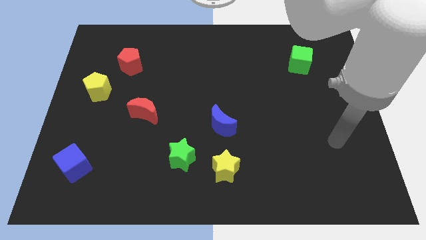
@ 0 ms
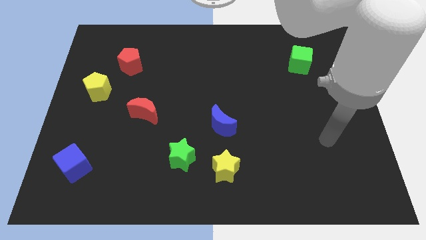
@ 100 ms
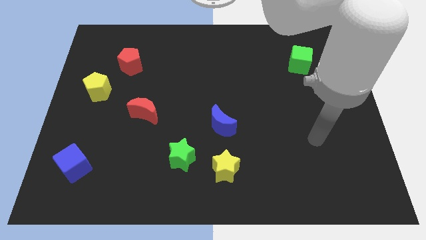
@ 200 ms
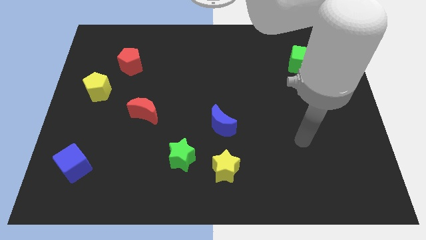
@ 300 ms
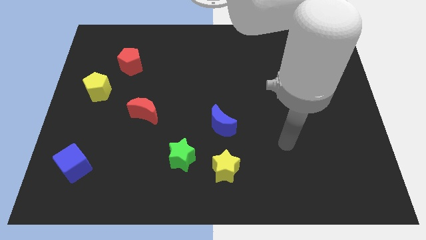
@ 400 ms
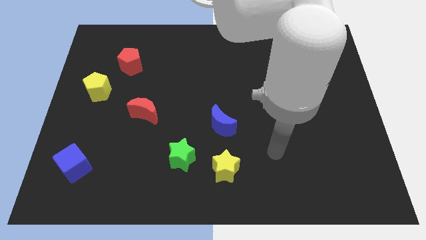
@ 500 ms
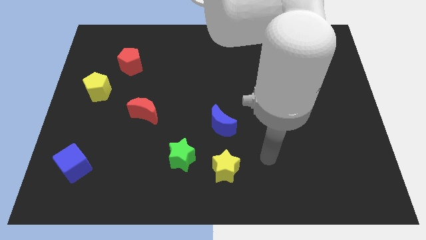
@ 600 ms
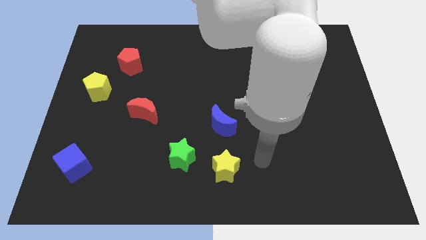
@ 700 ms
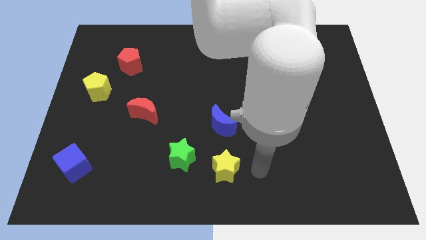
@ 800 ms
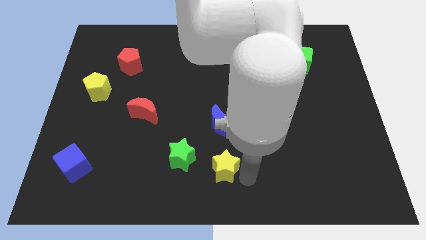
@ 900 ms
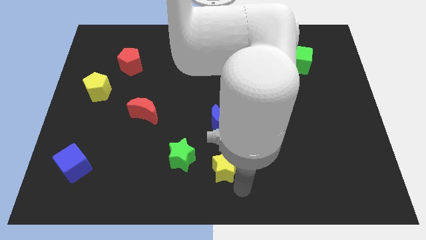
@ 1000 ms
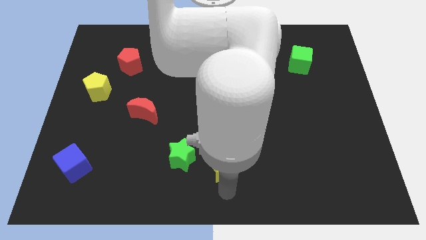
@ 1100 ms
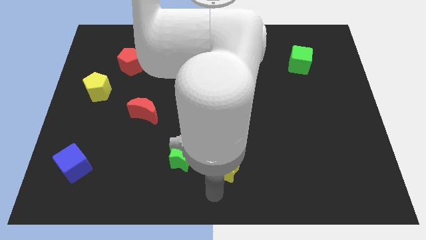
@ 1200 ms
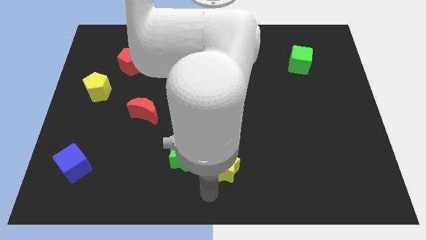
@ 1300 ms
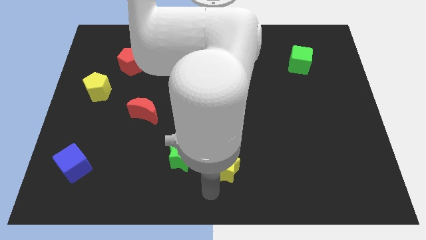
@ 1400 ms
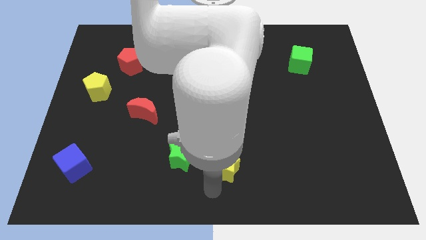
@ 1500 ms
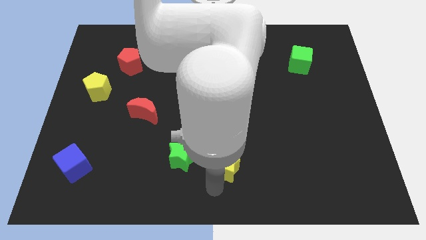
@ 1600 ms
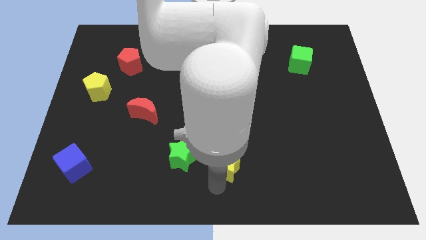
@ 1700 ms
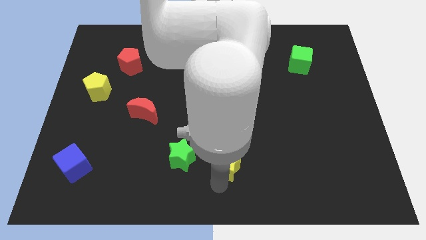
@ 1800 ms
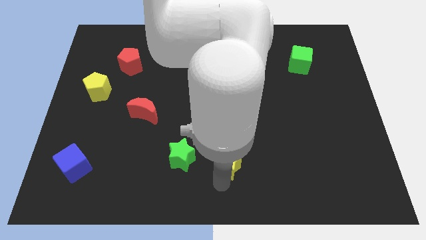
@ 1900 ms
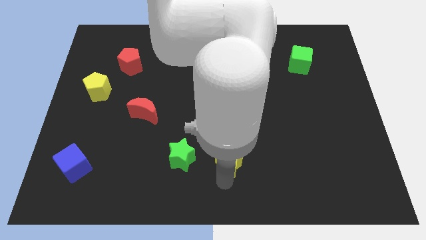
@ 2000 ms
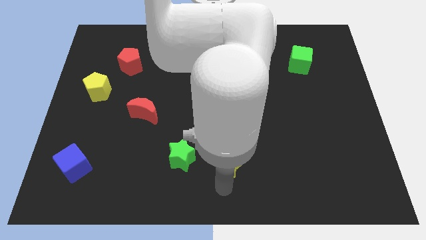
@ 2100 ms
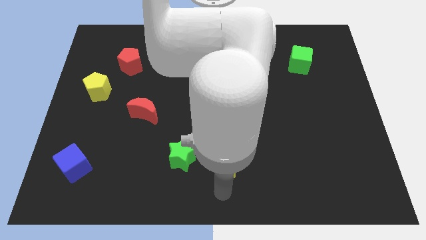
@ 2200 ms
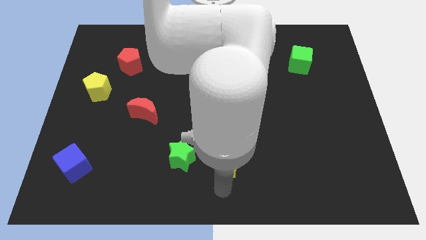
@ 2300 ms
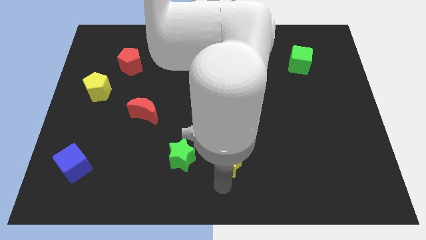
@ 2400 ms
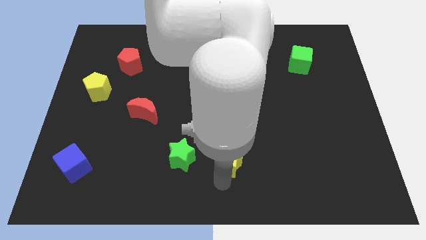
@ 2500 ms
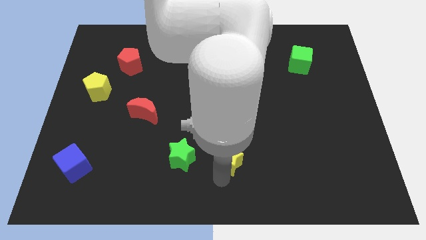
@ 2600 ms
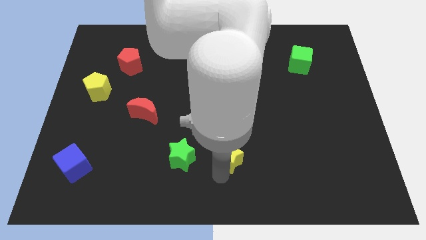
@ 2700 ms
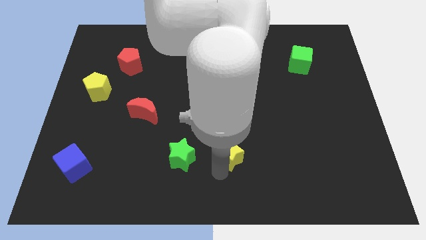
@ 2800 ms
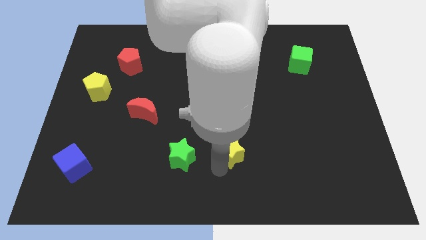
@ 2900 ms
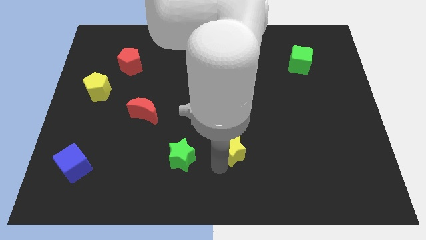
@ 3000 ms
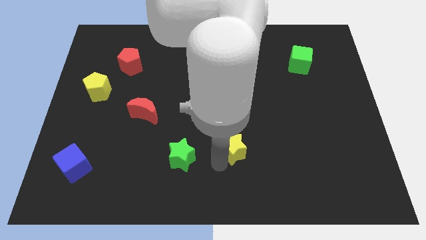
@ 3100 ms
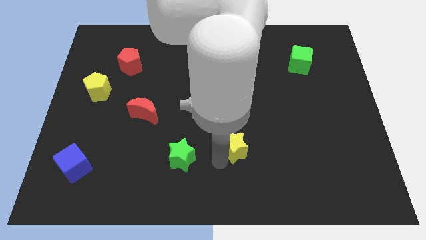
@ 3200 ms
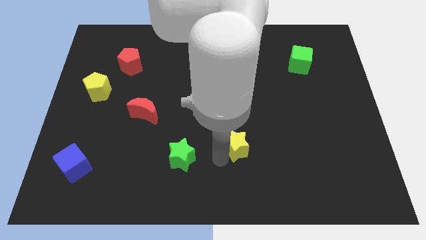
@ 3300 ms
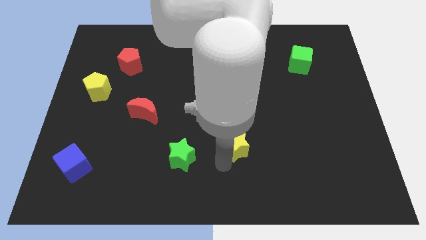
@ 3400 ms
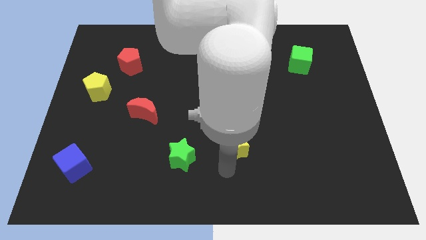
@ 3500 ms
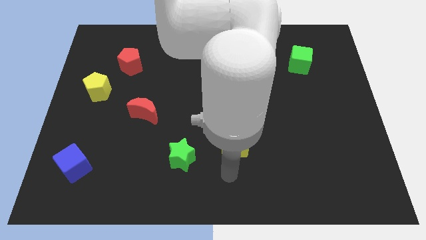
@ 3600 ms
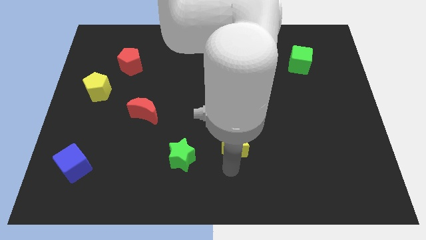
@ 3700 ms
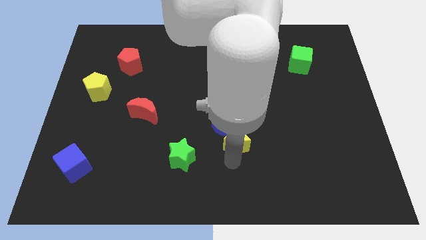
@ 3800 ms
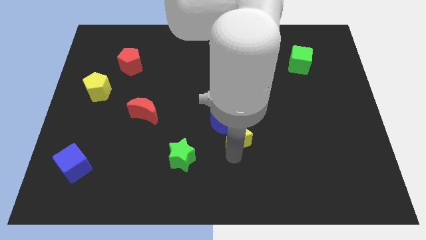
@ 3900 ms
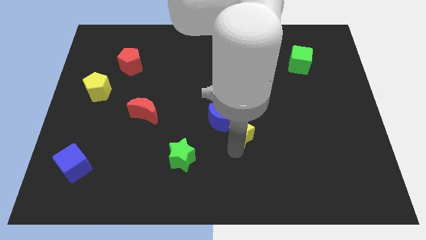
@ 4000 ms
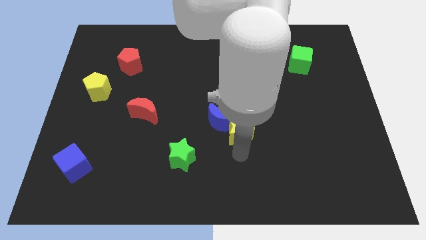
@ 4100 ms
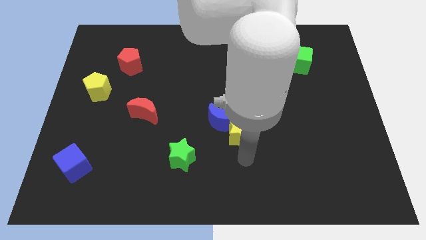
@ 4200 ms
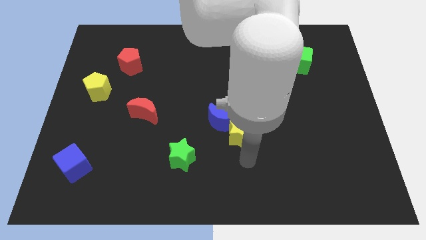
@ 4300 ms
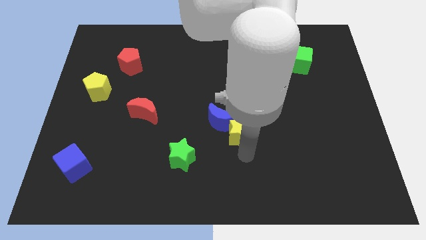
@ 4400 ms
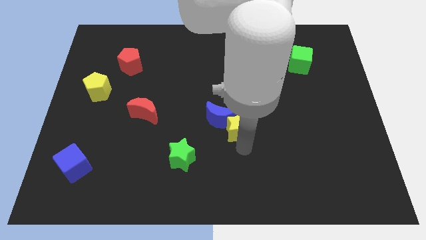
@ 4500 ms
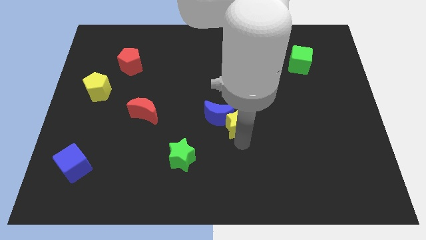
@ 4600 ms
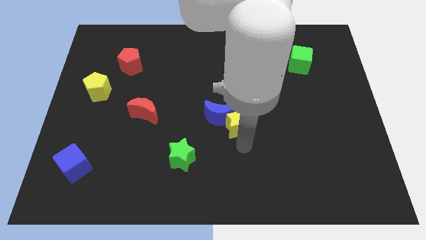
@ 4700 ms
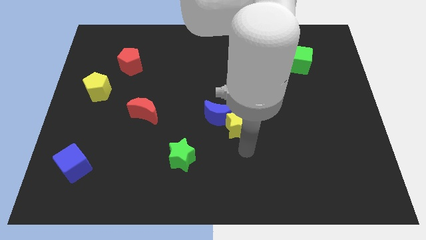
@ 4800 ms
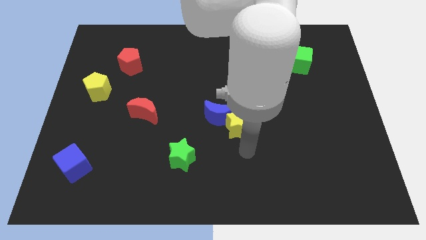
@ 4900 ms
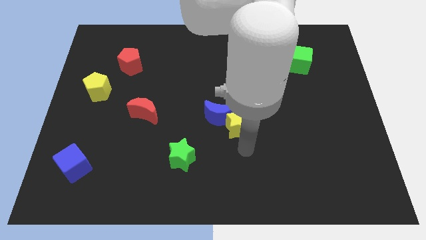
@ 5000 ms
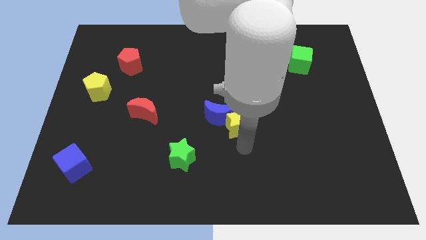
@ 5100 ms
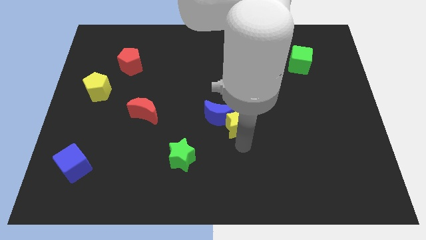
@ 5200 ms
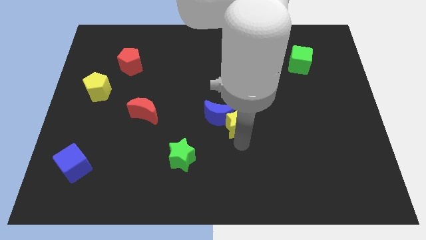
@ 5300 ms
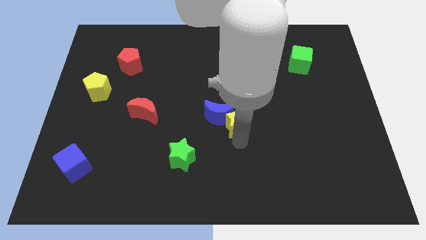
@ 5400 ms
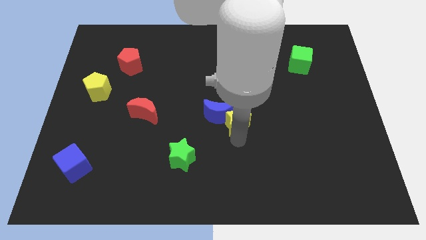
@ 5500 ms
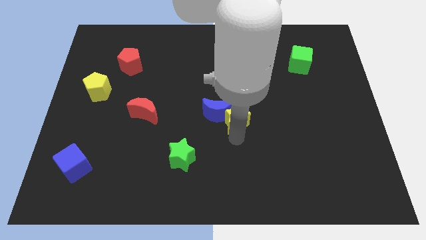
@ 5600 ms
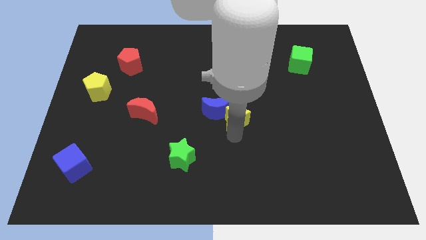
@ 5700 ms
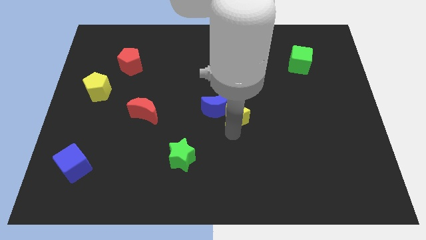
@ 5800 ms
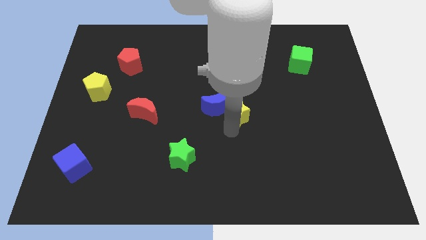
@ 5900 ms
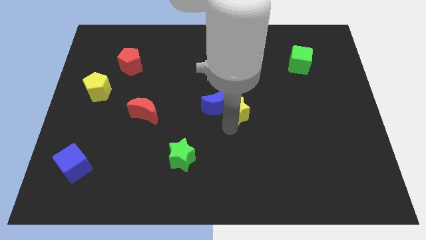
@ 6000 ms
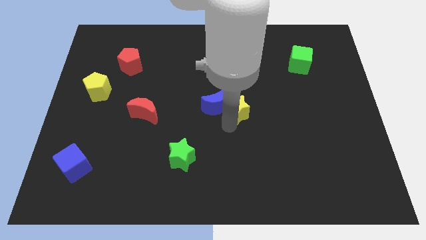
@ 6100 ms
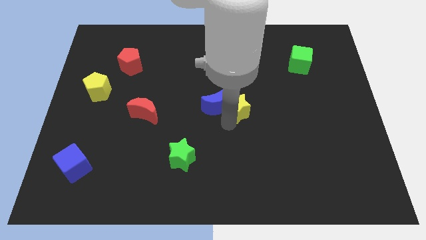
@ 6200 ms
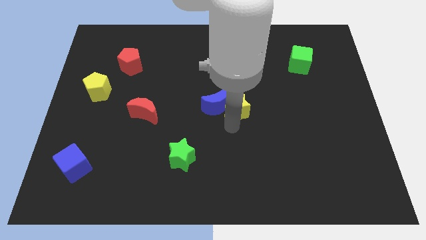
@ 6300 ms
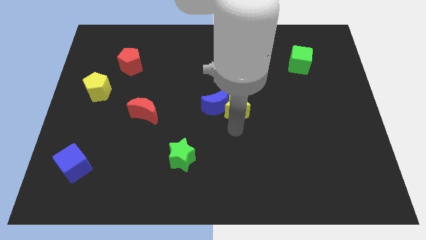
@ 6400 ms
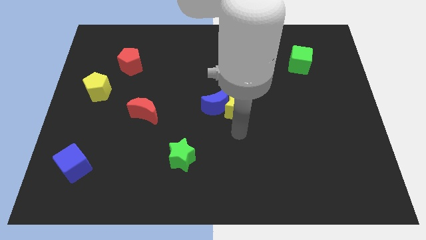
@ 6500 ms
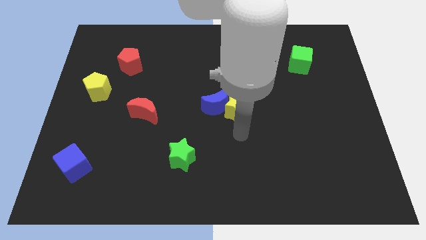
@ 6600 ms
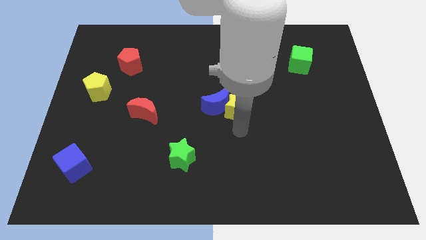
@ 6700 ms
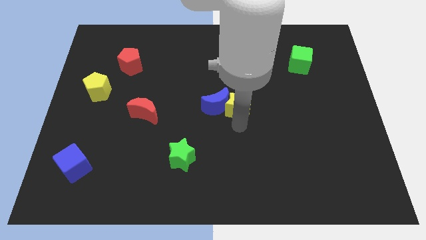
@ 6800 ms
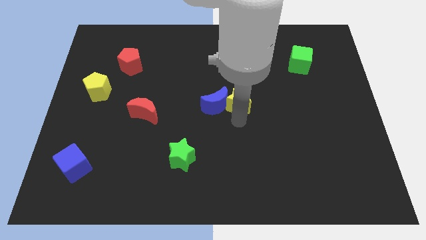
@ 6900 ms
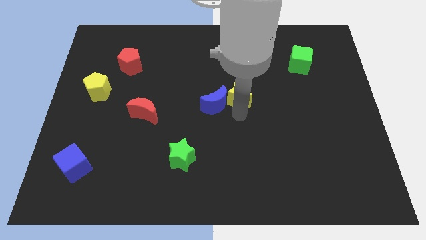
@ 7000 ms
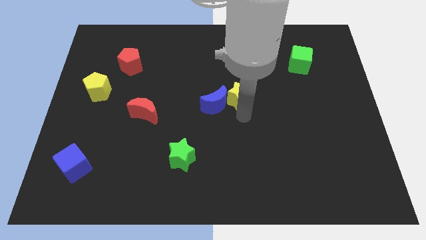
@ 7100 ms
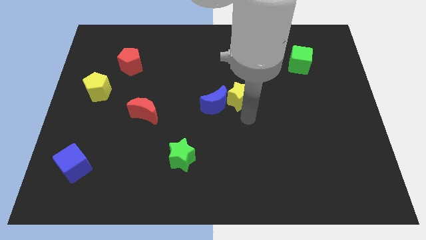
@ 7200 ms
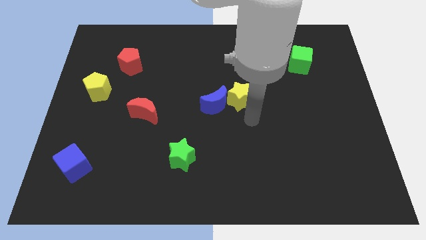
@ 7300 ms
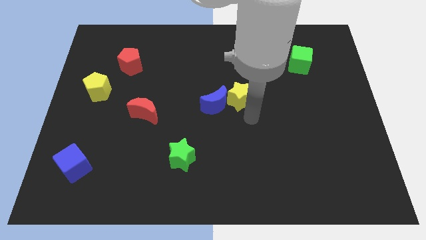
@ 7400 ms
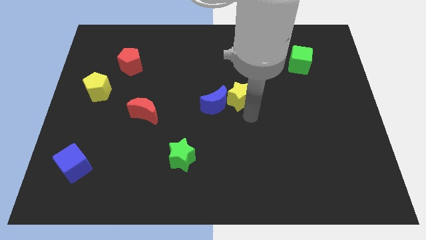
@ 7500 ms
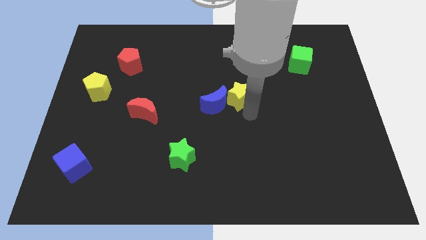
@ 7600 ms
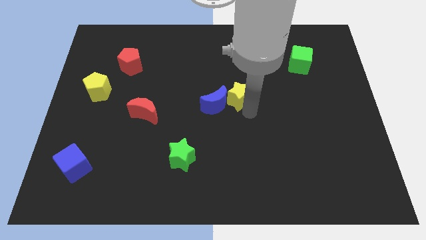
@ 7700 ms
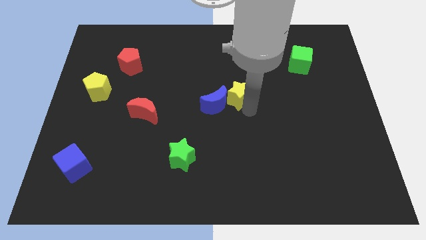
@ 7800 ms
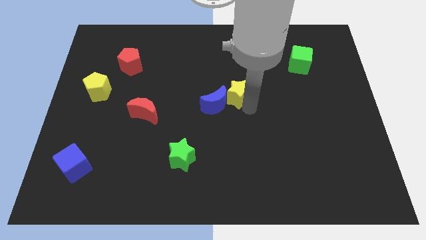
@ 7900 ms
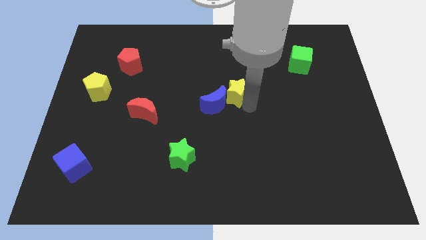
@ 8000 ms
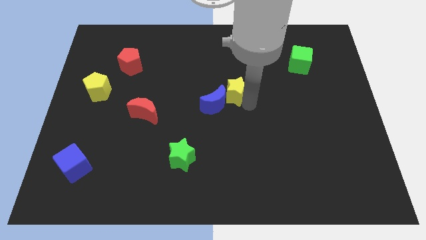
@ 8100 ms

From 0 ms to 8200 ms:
push the yellow star up
